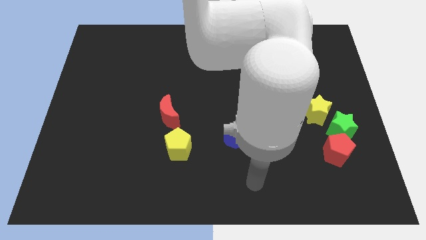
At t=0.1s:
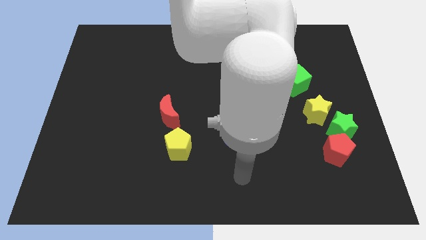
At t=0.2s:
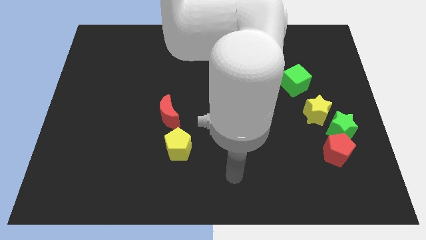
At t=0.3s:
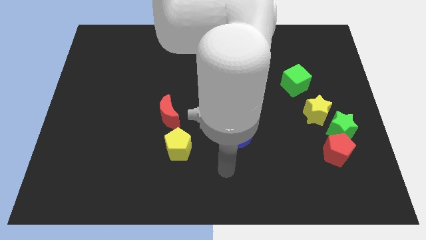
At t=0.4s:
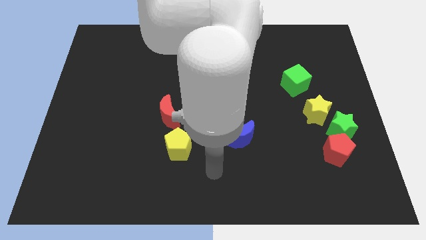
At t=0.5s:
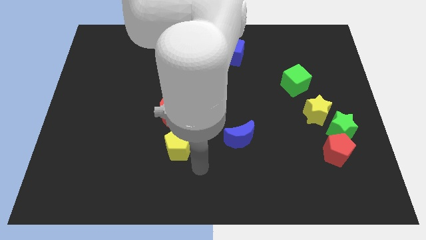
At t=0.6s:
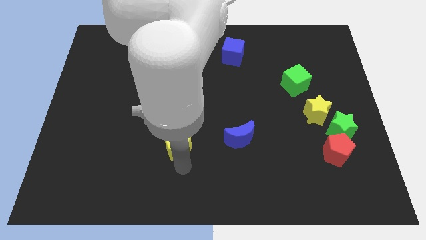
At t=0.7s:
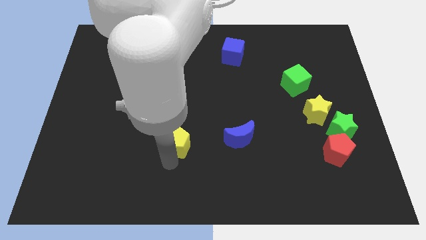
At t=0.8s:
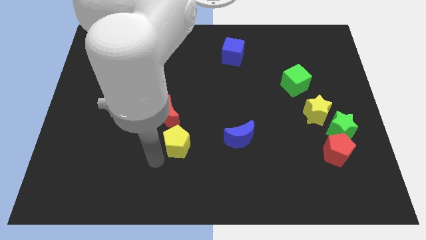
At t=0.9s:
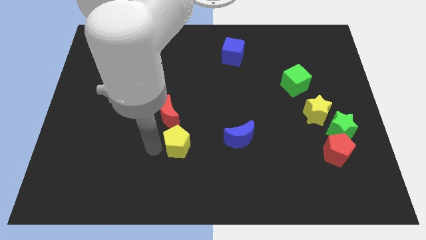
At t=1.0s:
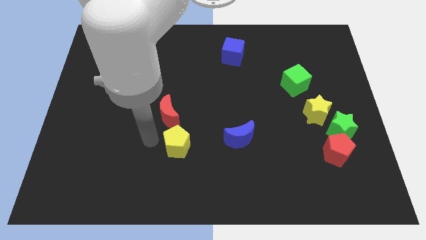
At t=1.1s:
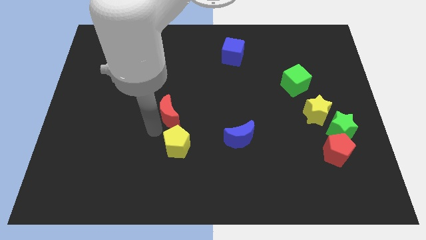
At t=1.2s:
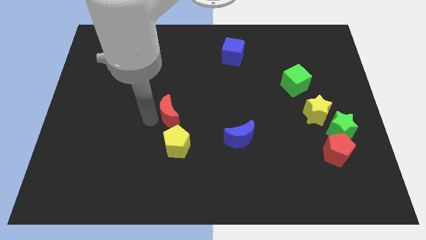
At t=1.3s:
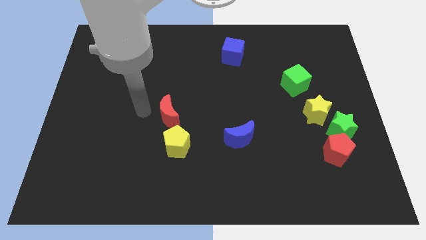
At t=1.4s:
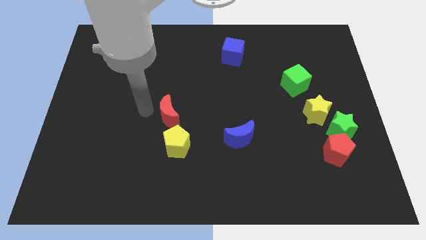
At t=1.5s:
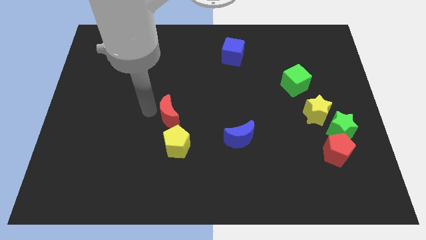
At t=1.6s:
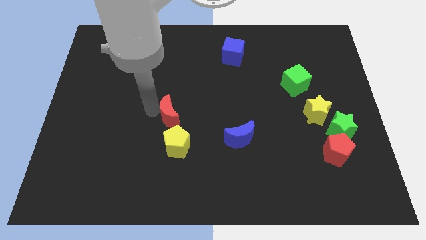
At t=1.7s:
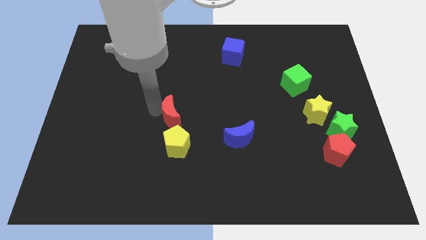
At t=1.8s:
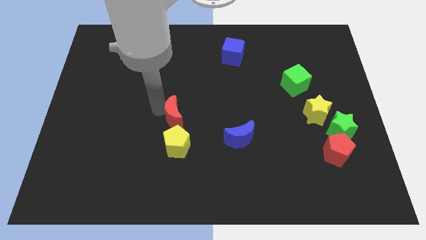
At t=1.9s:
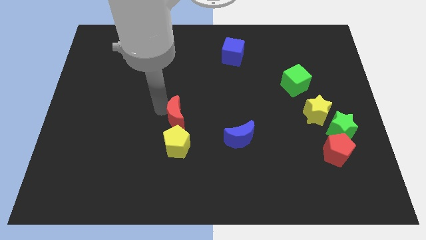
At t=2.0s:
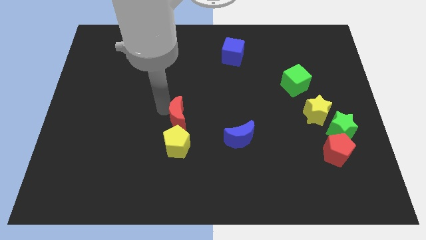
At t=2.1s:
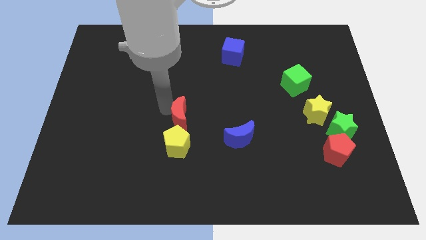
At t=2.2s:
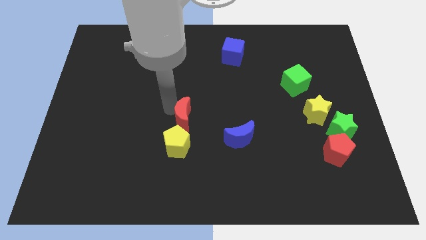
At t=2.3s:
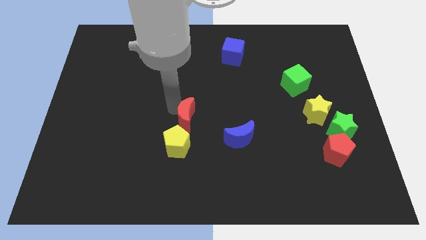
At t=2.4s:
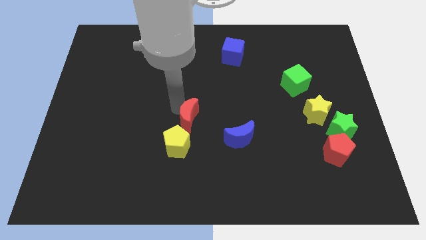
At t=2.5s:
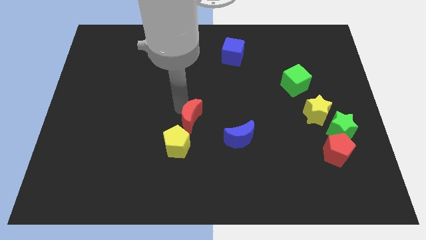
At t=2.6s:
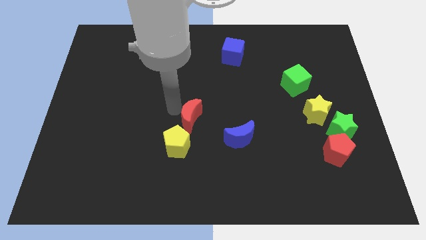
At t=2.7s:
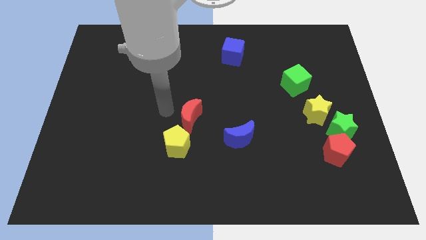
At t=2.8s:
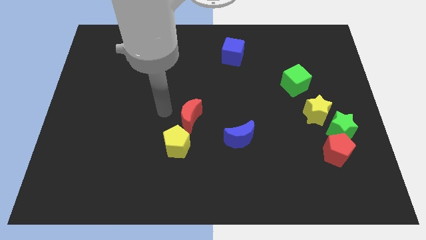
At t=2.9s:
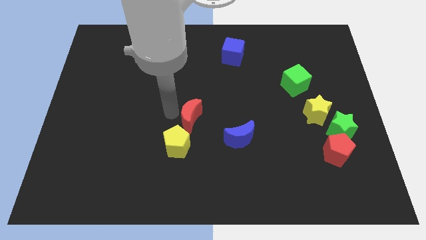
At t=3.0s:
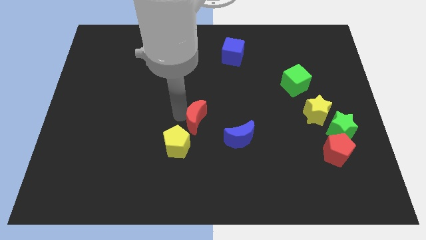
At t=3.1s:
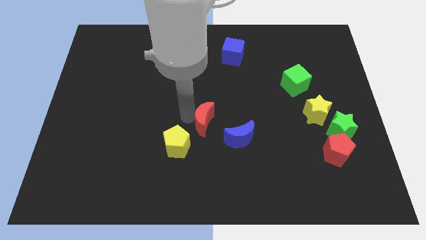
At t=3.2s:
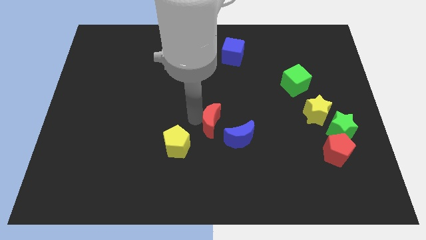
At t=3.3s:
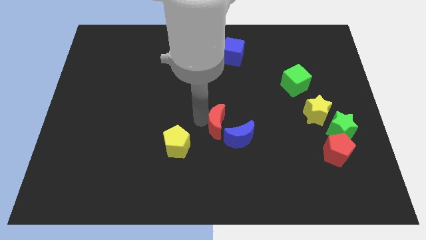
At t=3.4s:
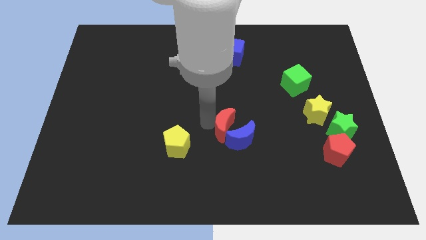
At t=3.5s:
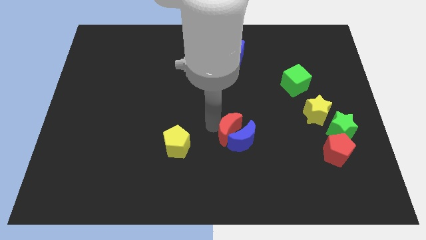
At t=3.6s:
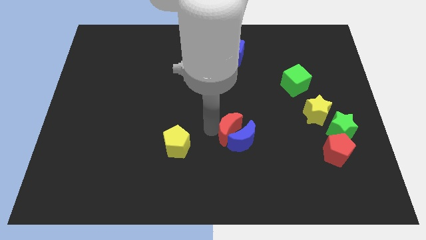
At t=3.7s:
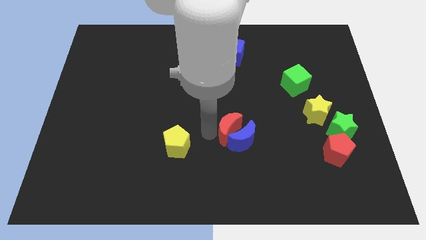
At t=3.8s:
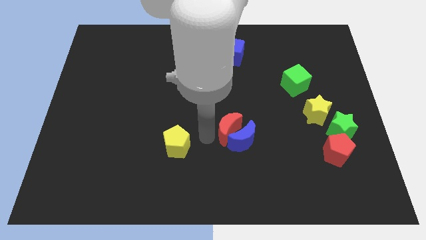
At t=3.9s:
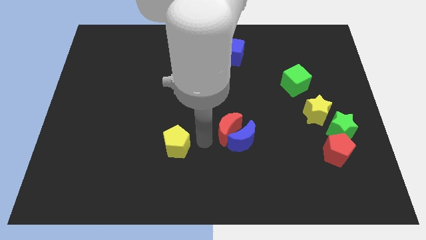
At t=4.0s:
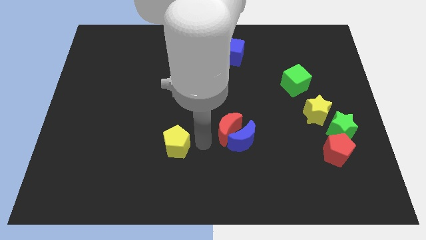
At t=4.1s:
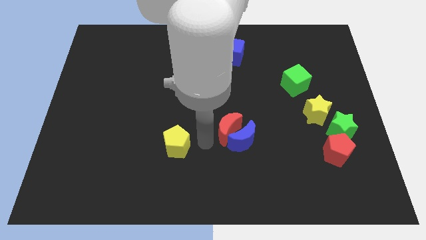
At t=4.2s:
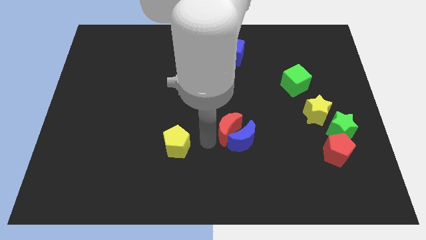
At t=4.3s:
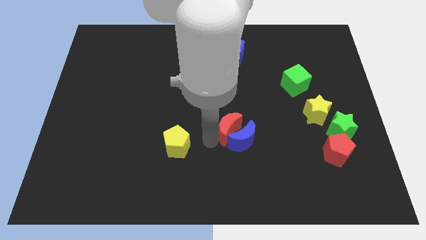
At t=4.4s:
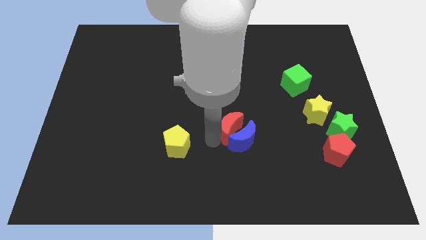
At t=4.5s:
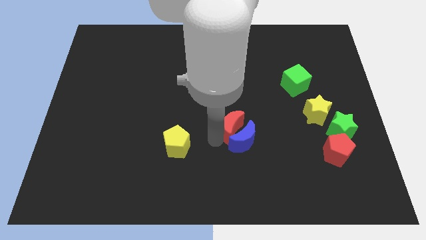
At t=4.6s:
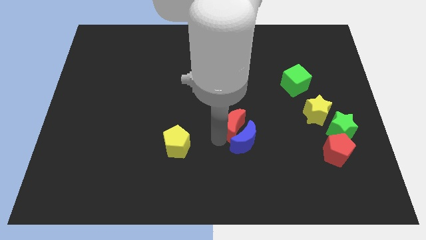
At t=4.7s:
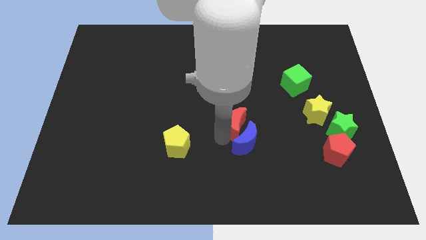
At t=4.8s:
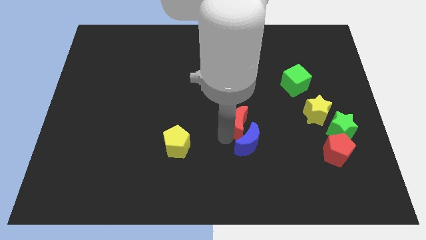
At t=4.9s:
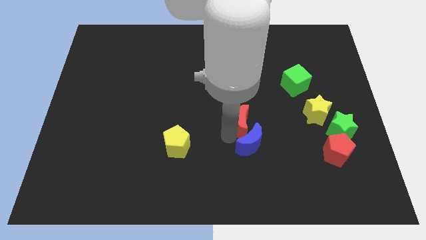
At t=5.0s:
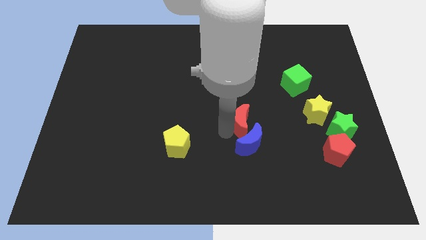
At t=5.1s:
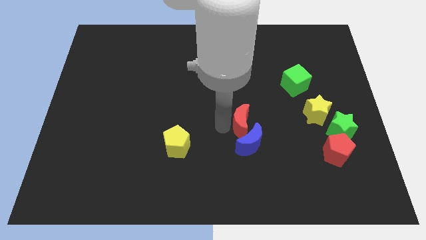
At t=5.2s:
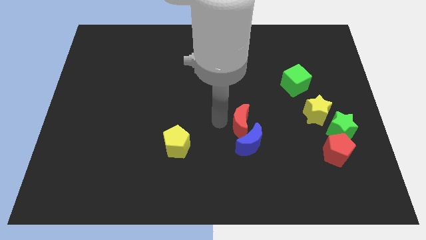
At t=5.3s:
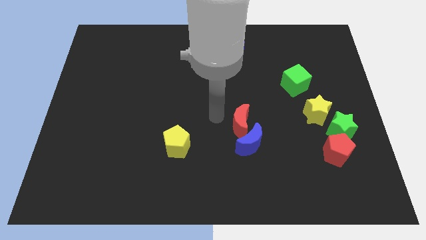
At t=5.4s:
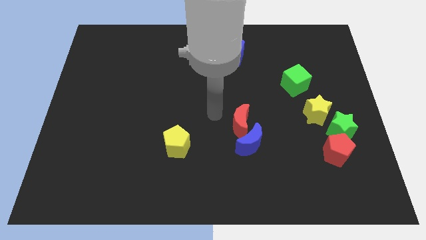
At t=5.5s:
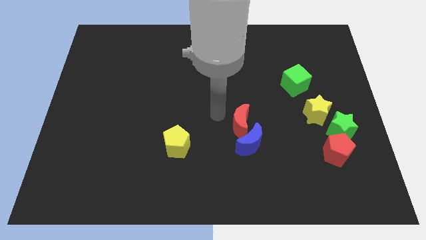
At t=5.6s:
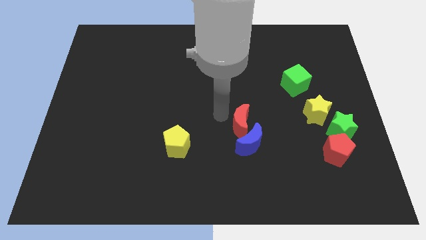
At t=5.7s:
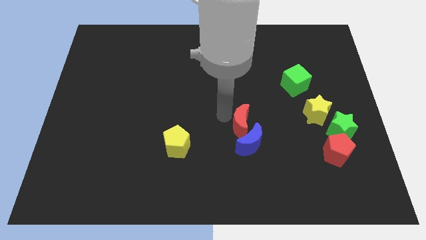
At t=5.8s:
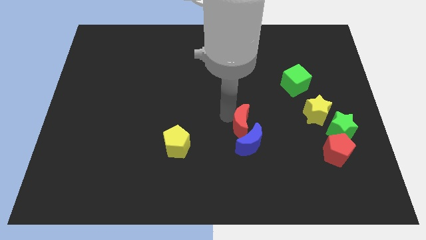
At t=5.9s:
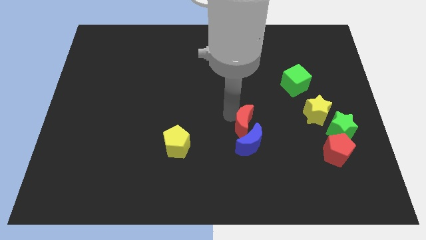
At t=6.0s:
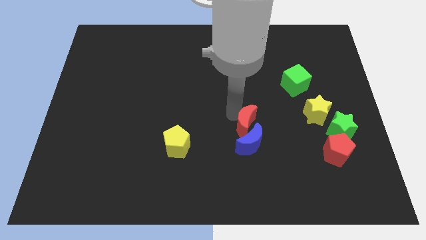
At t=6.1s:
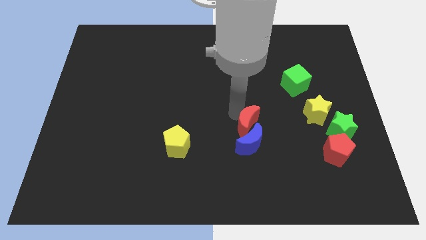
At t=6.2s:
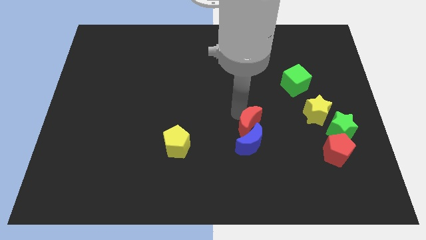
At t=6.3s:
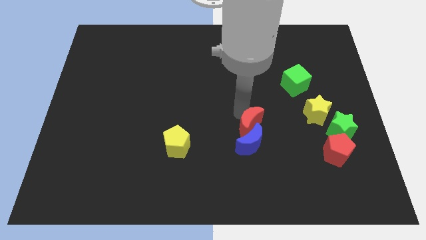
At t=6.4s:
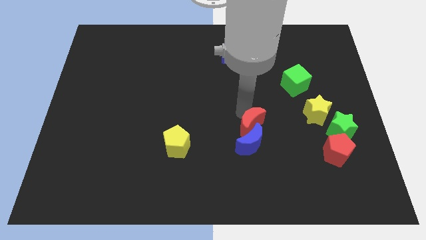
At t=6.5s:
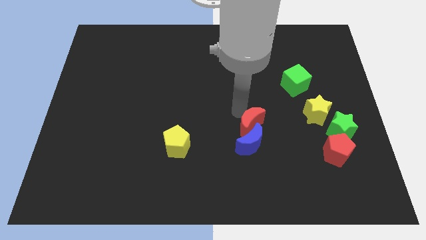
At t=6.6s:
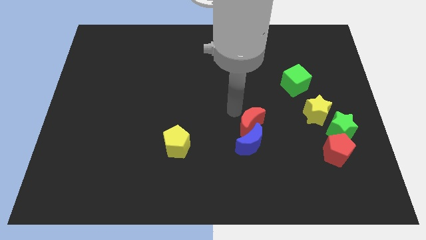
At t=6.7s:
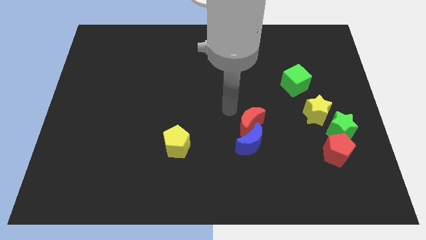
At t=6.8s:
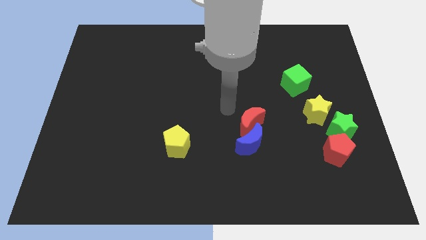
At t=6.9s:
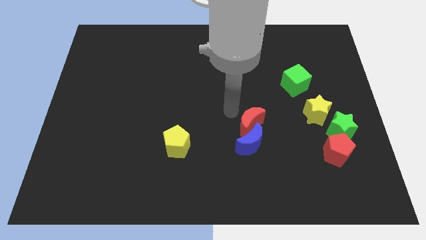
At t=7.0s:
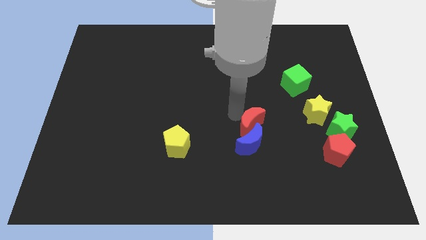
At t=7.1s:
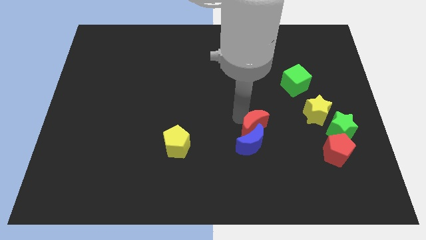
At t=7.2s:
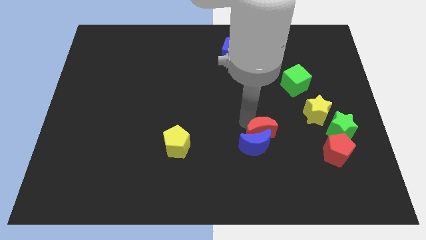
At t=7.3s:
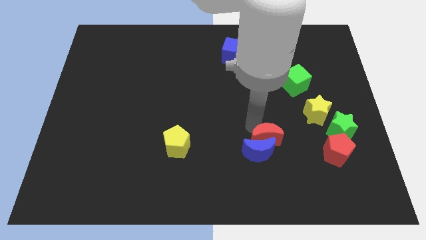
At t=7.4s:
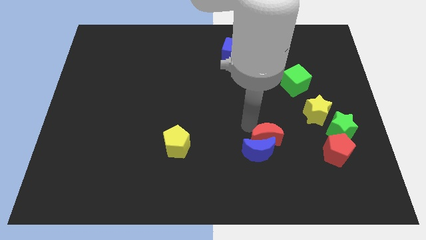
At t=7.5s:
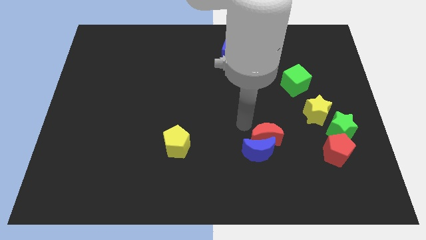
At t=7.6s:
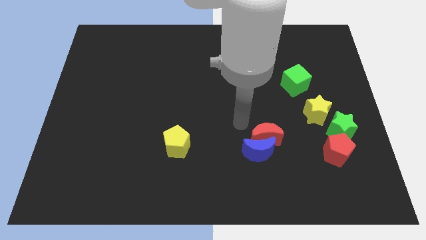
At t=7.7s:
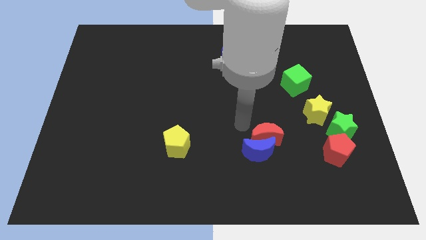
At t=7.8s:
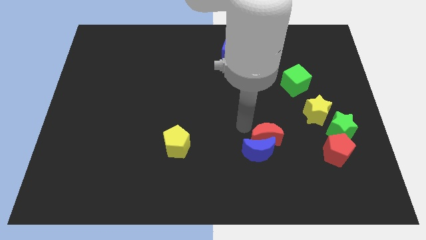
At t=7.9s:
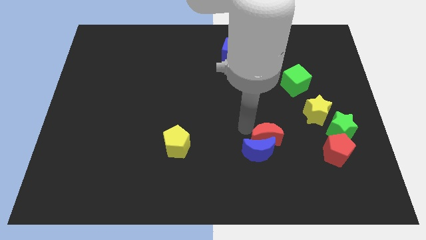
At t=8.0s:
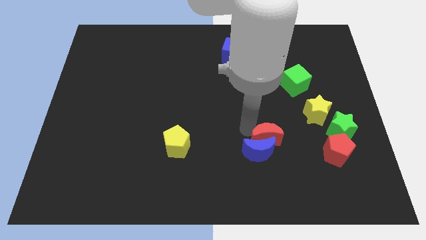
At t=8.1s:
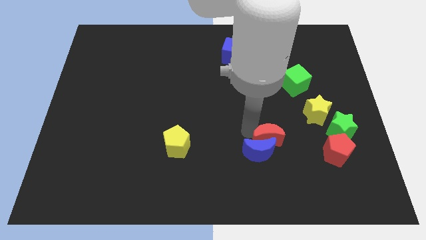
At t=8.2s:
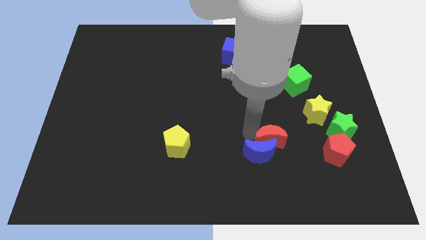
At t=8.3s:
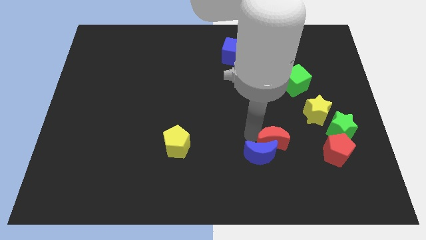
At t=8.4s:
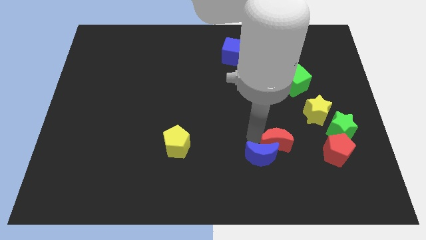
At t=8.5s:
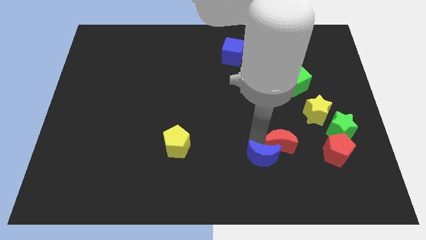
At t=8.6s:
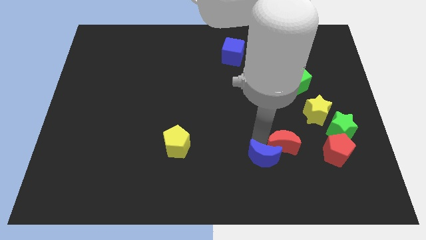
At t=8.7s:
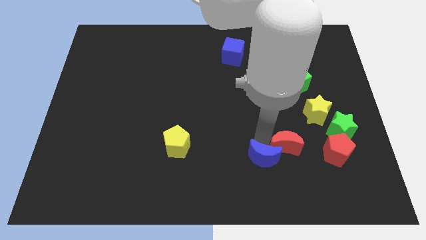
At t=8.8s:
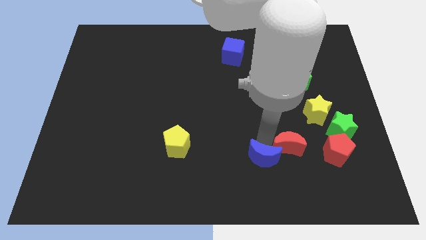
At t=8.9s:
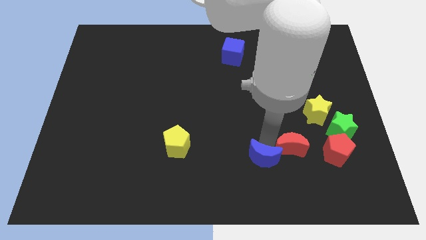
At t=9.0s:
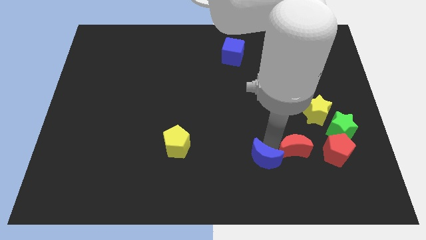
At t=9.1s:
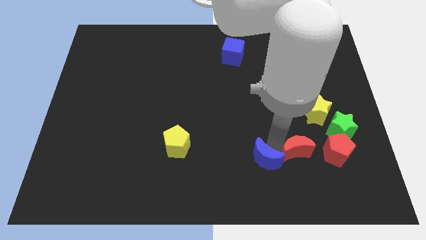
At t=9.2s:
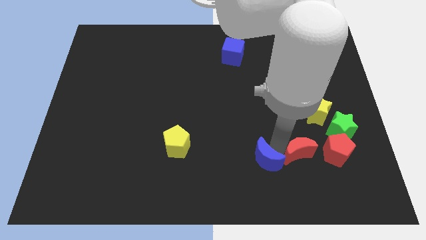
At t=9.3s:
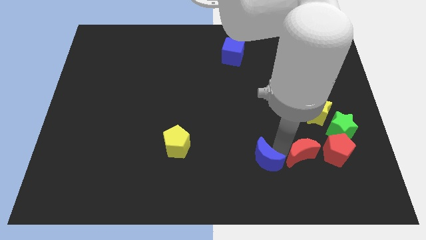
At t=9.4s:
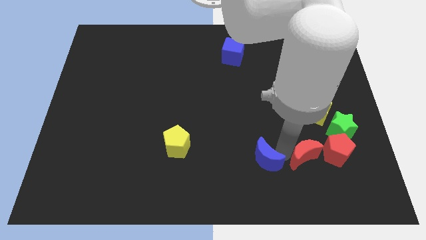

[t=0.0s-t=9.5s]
put the red moon diagonally down and to the left of the red pentagon
